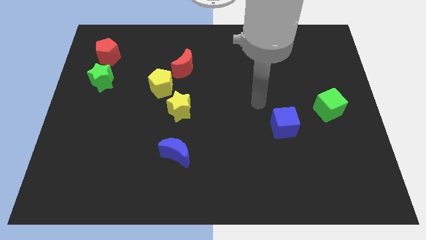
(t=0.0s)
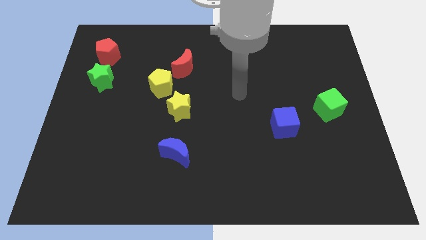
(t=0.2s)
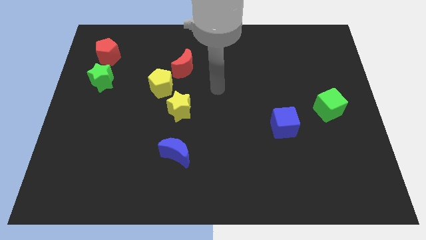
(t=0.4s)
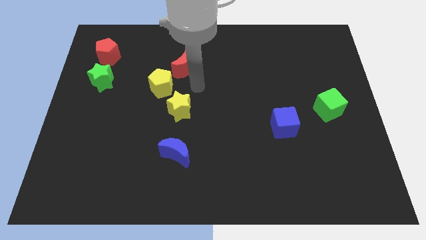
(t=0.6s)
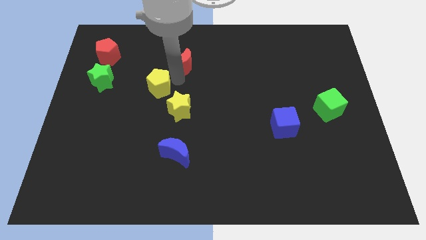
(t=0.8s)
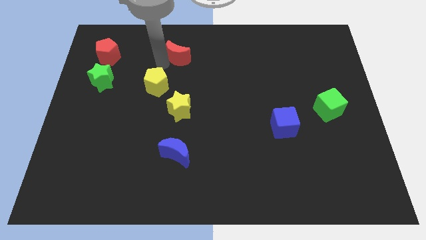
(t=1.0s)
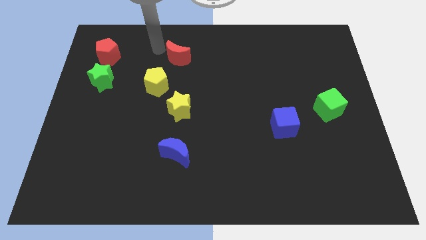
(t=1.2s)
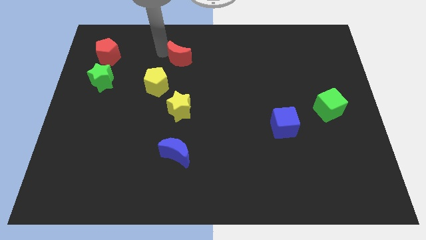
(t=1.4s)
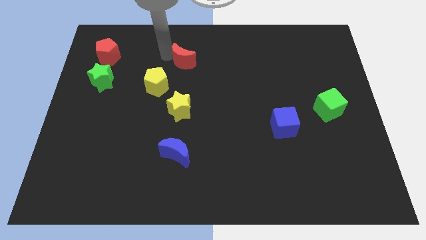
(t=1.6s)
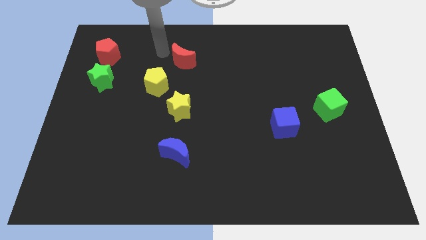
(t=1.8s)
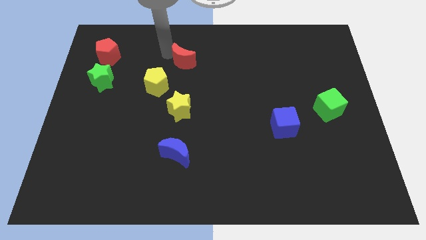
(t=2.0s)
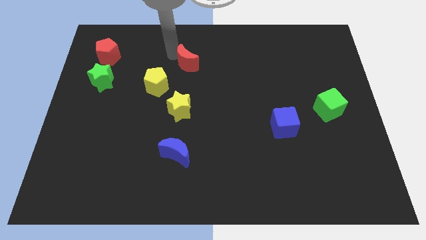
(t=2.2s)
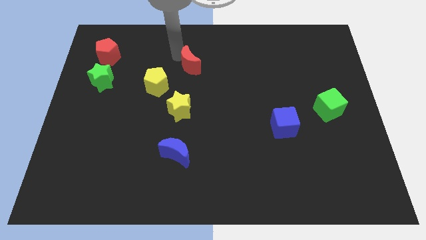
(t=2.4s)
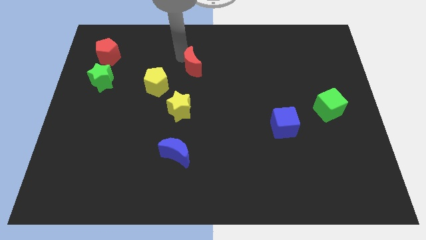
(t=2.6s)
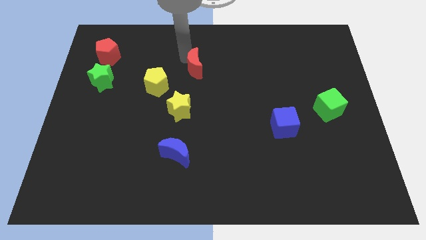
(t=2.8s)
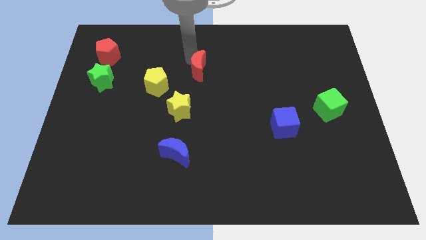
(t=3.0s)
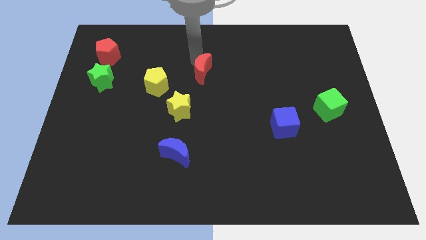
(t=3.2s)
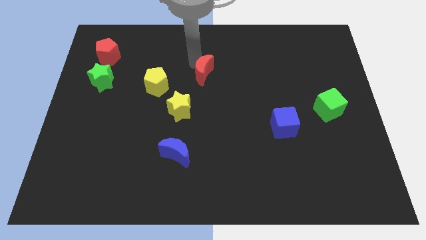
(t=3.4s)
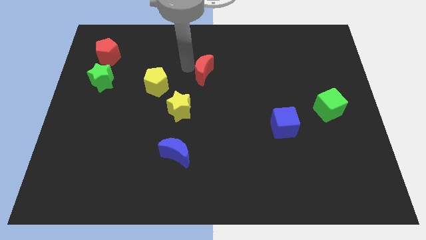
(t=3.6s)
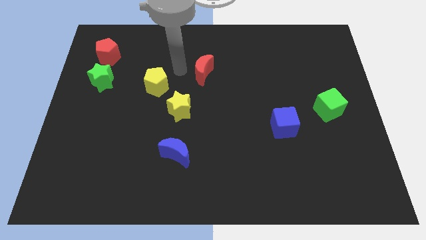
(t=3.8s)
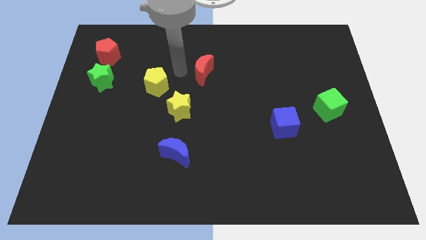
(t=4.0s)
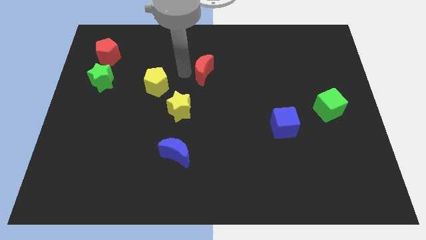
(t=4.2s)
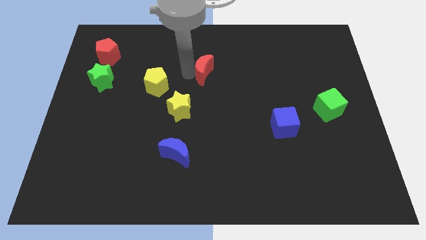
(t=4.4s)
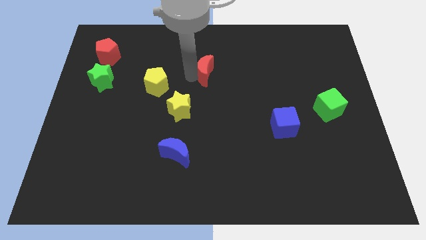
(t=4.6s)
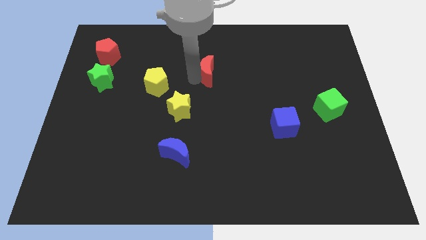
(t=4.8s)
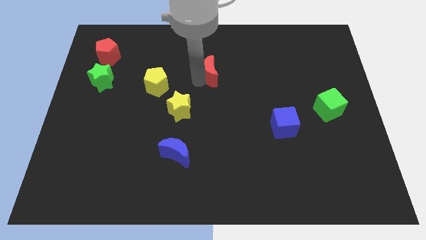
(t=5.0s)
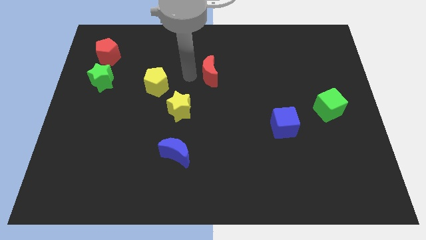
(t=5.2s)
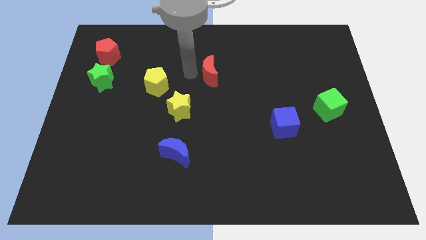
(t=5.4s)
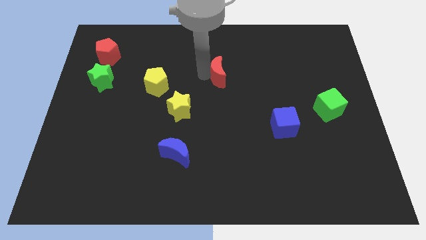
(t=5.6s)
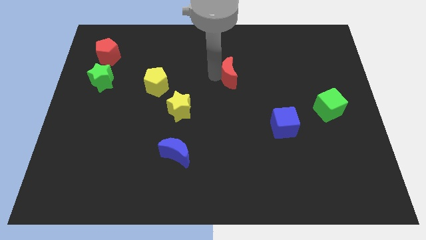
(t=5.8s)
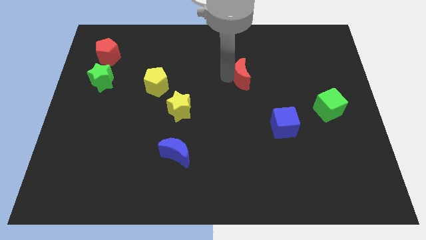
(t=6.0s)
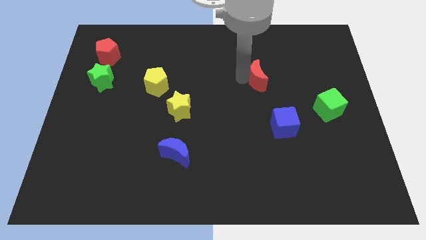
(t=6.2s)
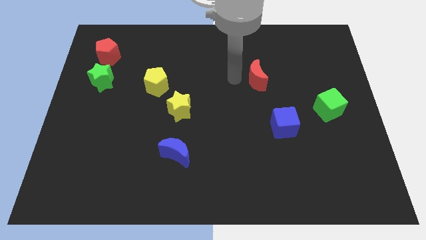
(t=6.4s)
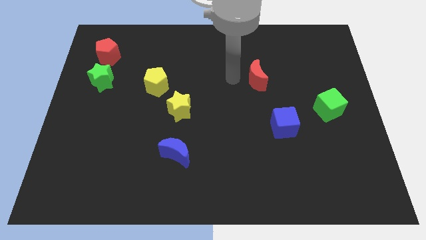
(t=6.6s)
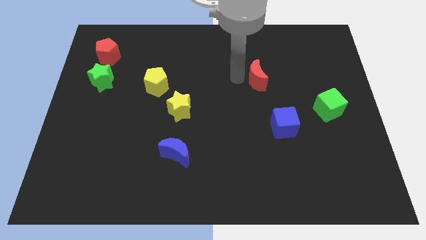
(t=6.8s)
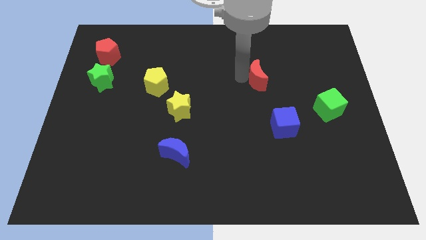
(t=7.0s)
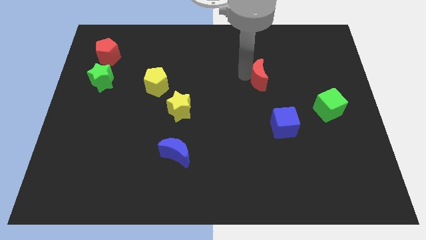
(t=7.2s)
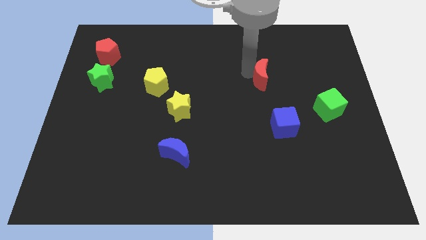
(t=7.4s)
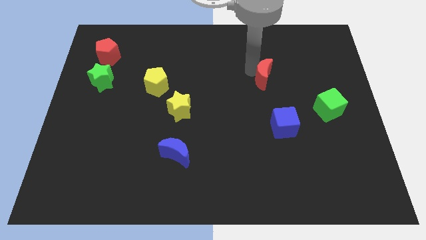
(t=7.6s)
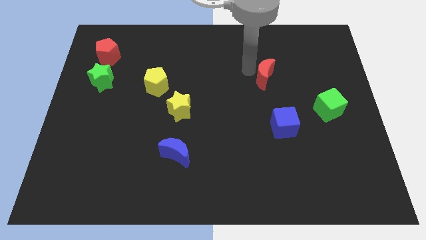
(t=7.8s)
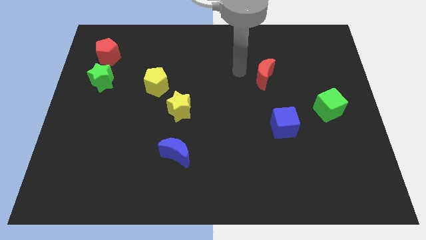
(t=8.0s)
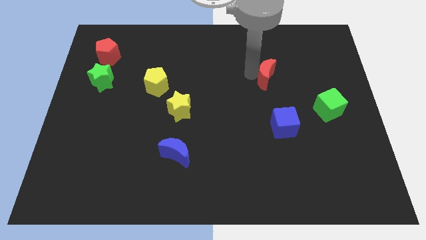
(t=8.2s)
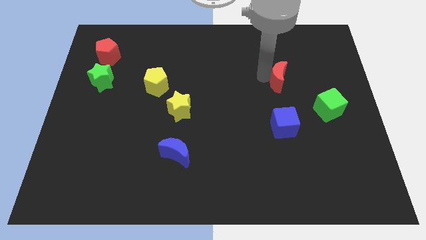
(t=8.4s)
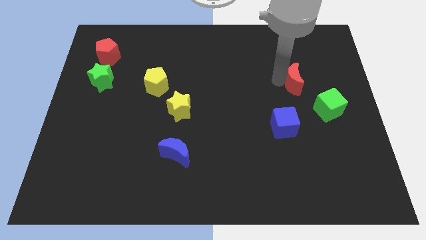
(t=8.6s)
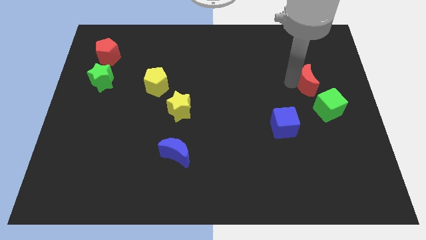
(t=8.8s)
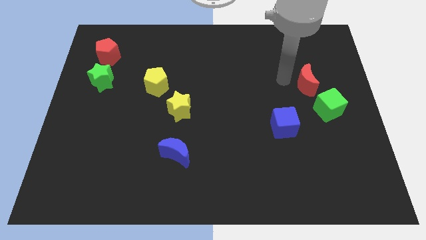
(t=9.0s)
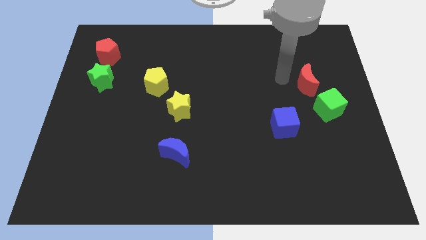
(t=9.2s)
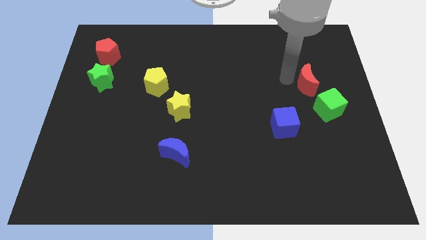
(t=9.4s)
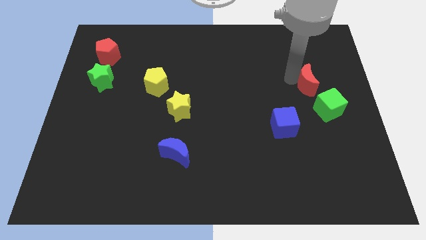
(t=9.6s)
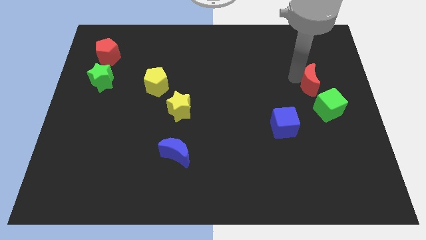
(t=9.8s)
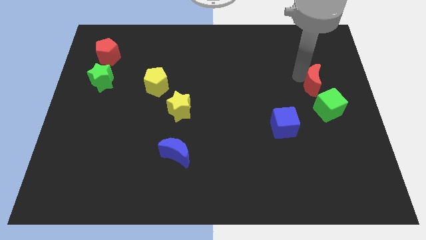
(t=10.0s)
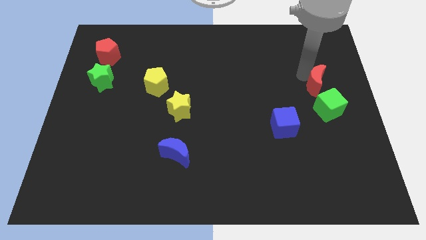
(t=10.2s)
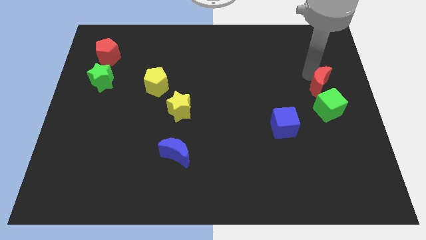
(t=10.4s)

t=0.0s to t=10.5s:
push the red moon to the right side

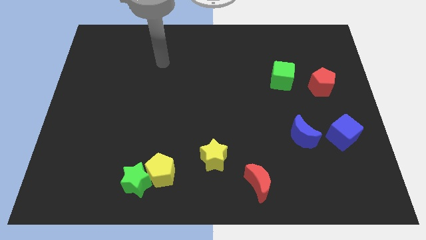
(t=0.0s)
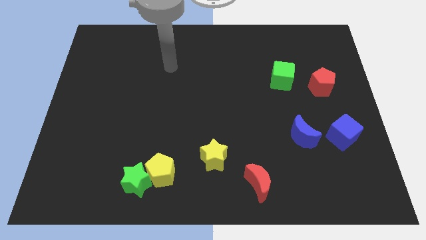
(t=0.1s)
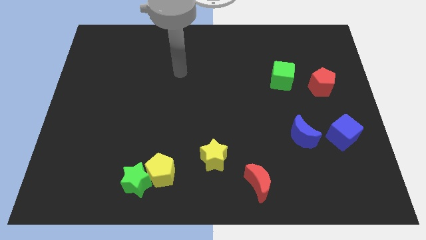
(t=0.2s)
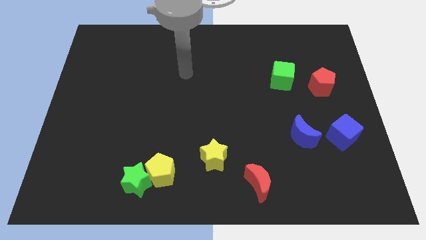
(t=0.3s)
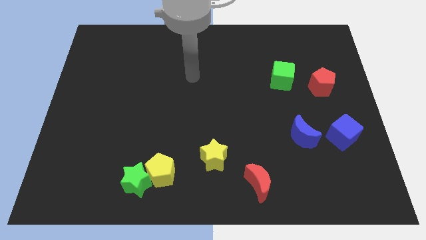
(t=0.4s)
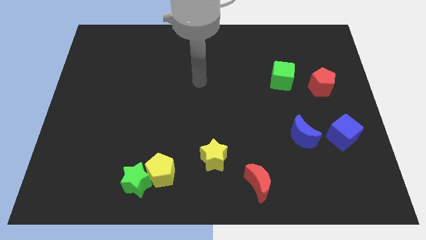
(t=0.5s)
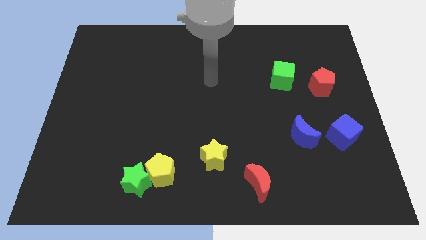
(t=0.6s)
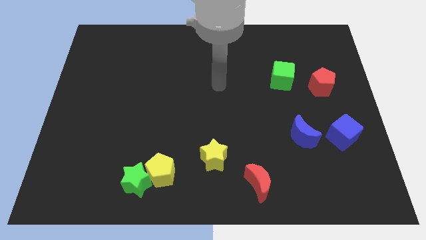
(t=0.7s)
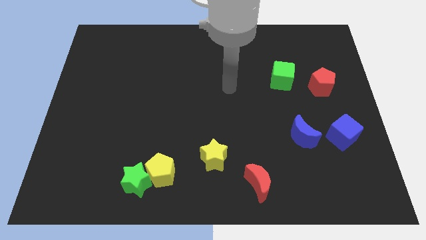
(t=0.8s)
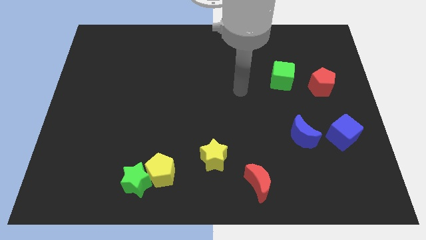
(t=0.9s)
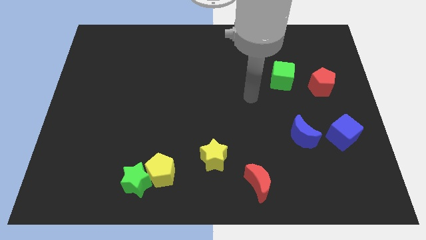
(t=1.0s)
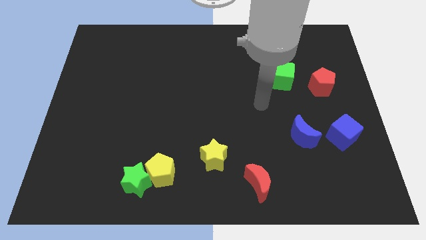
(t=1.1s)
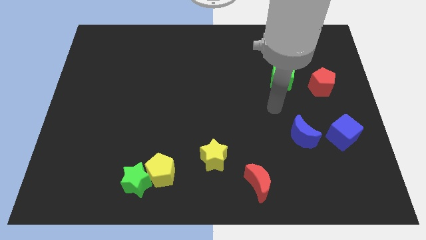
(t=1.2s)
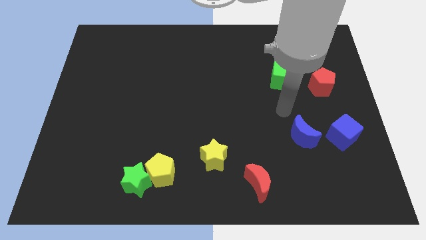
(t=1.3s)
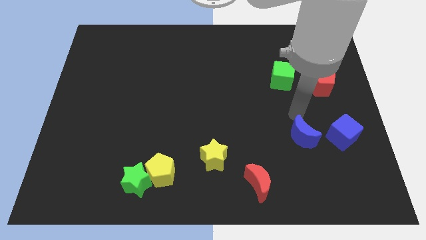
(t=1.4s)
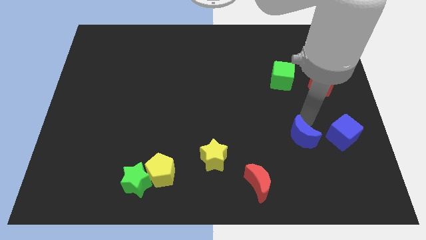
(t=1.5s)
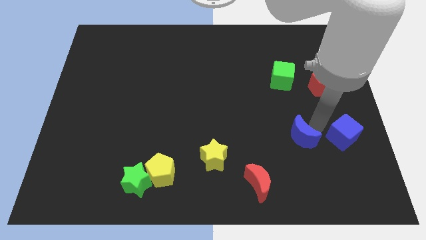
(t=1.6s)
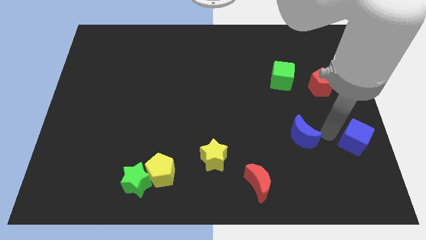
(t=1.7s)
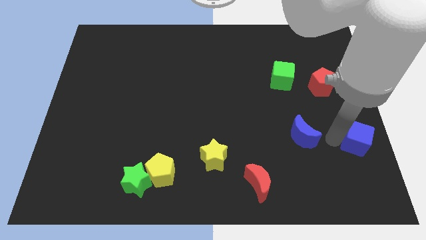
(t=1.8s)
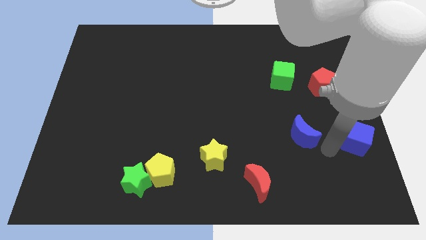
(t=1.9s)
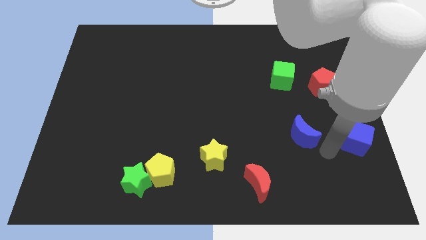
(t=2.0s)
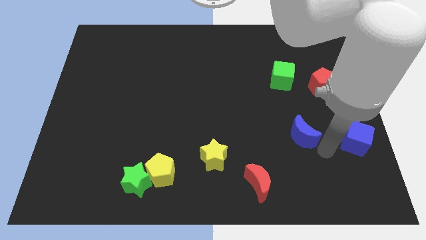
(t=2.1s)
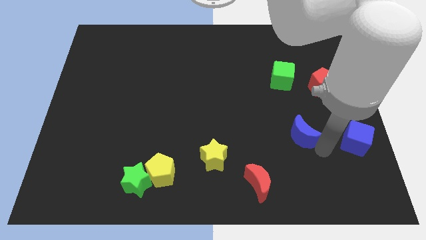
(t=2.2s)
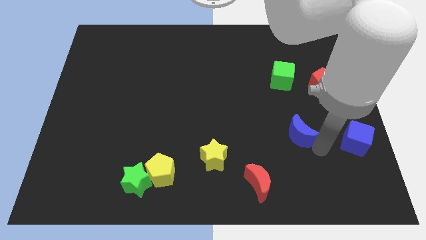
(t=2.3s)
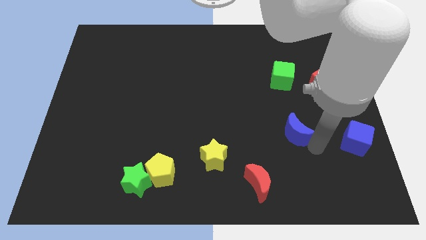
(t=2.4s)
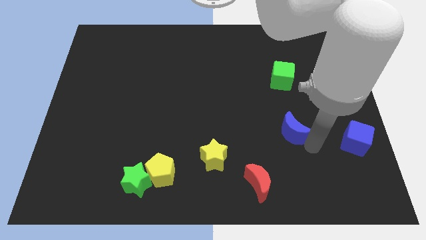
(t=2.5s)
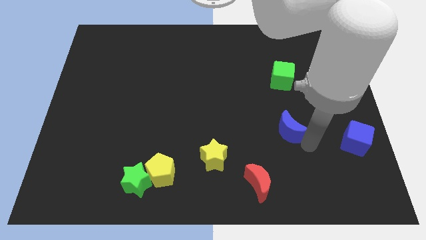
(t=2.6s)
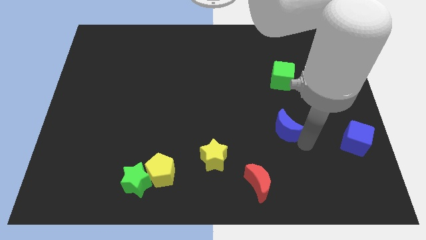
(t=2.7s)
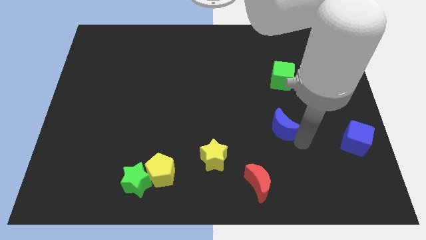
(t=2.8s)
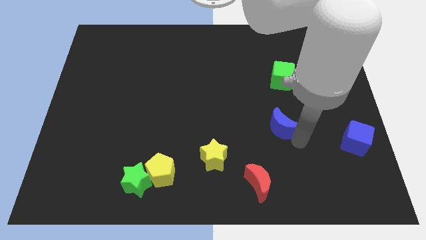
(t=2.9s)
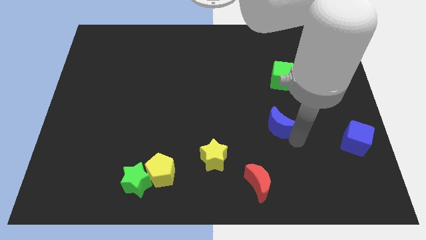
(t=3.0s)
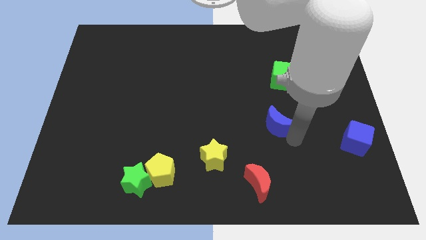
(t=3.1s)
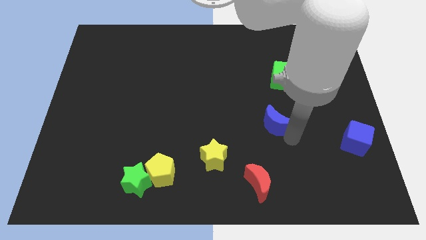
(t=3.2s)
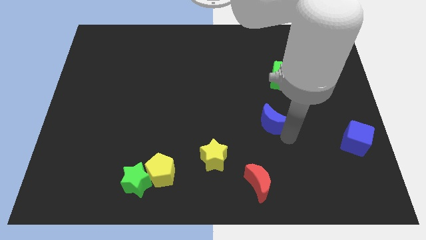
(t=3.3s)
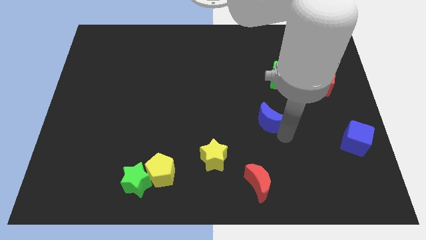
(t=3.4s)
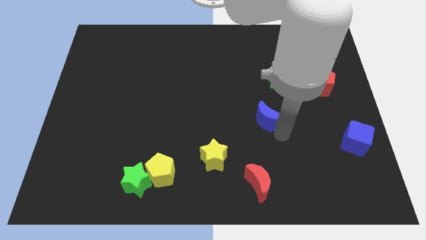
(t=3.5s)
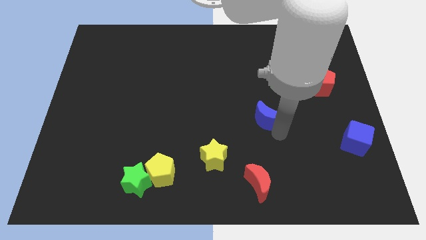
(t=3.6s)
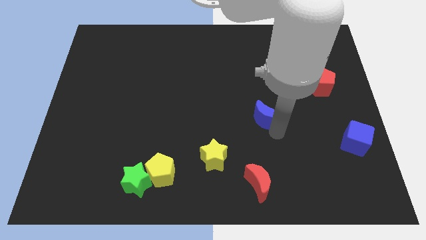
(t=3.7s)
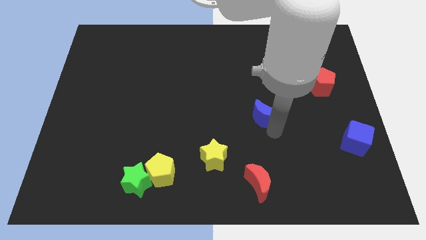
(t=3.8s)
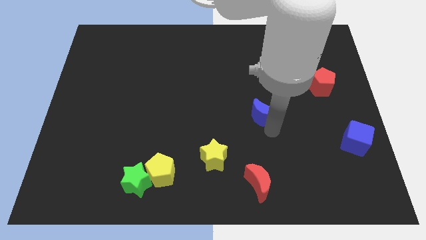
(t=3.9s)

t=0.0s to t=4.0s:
push the blue moon to the center of the board
